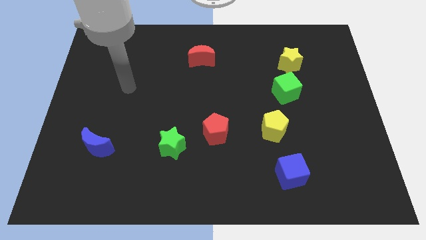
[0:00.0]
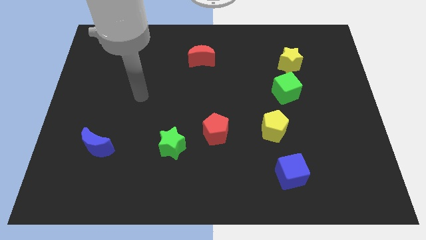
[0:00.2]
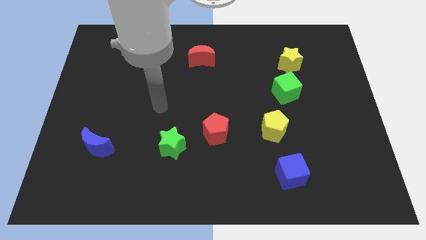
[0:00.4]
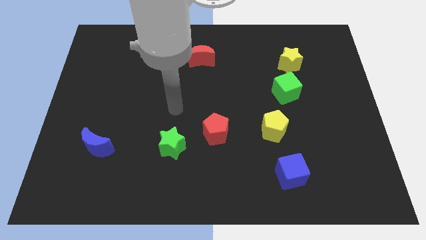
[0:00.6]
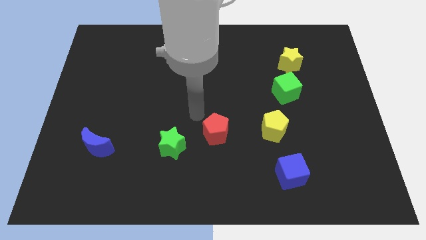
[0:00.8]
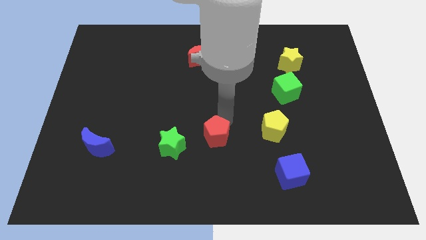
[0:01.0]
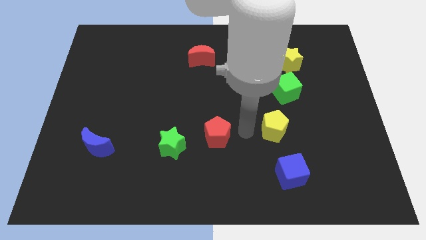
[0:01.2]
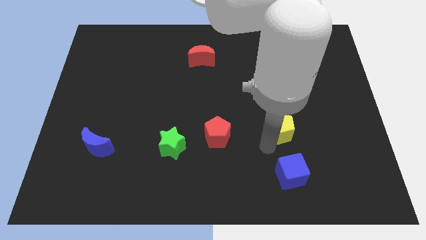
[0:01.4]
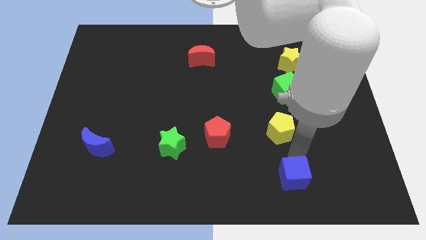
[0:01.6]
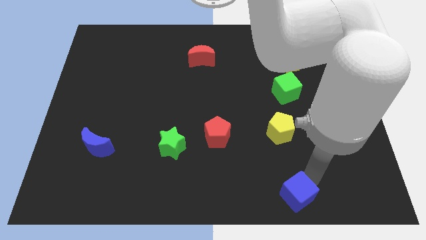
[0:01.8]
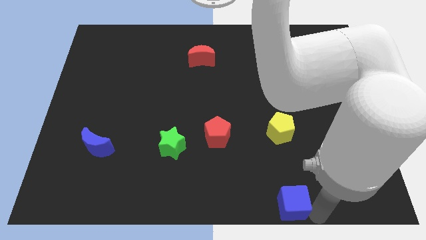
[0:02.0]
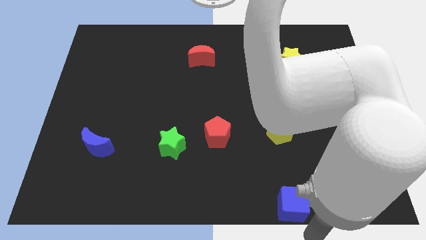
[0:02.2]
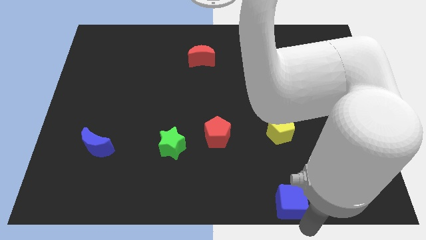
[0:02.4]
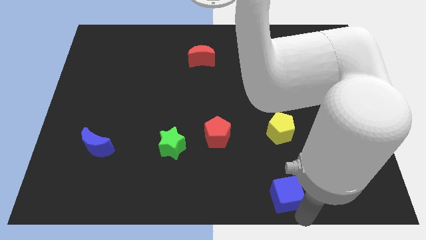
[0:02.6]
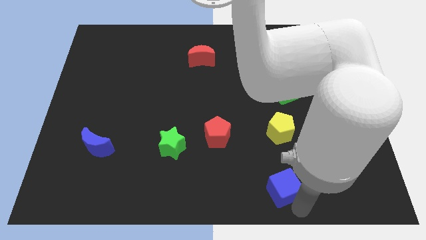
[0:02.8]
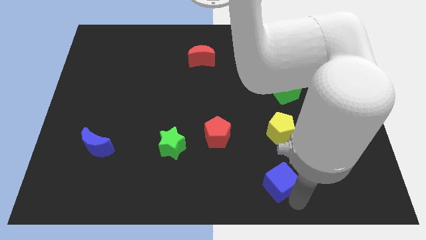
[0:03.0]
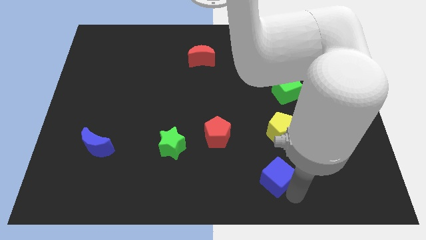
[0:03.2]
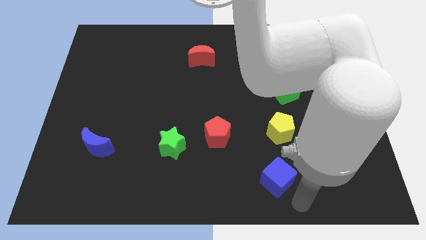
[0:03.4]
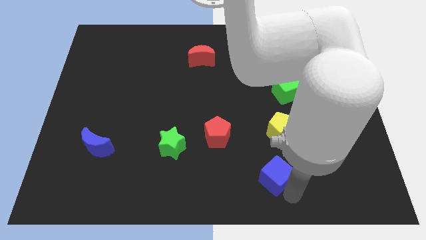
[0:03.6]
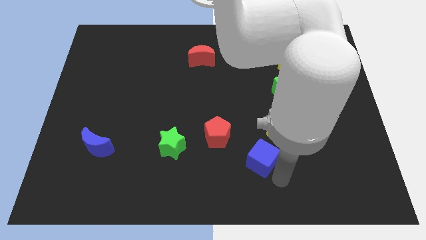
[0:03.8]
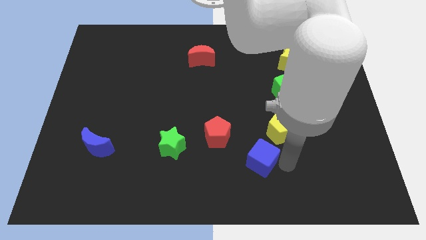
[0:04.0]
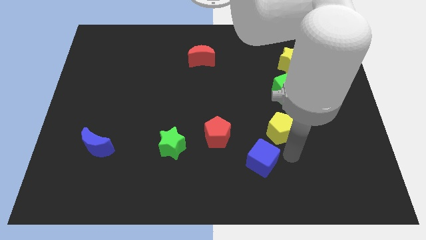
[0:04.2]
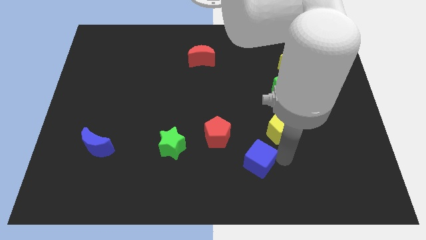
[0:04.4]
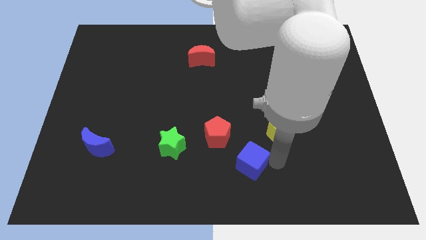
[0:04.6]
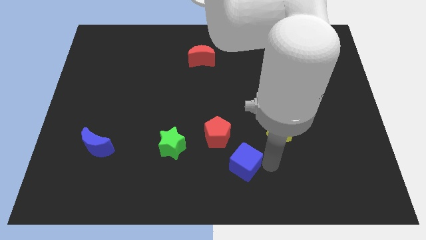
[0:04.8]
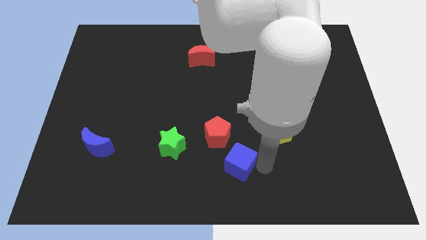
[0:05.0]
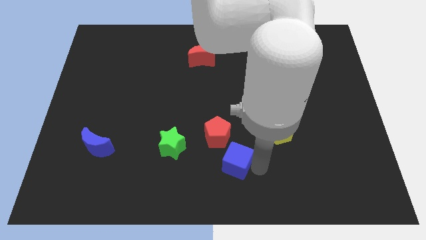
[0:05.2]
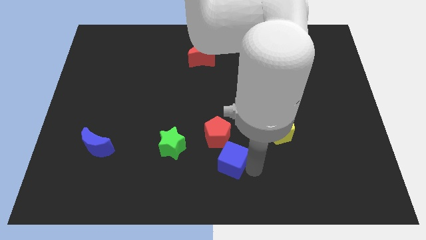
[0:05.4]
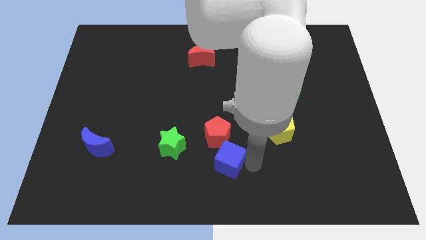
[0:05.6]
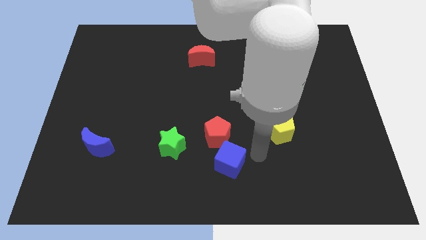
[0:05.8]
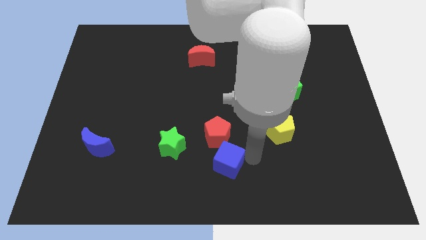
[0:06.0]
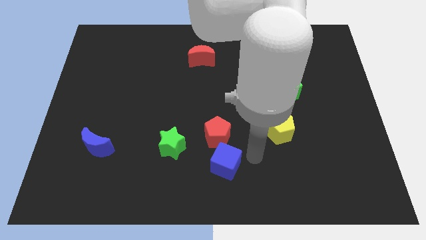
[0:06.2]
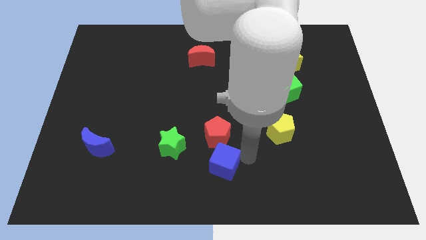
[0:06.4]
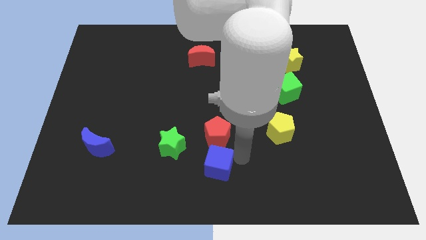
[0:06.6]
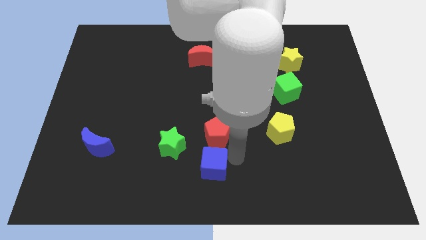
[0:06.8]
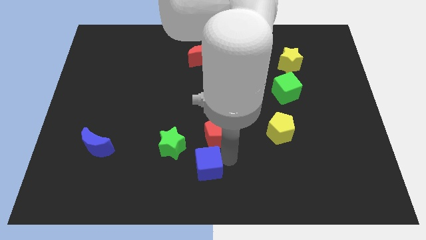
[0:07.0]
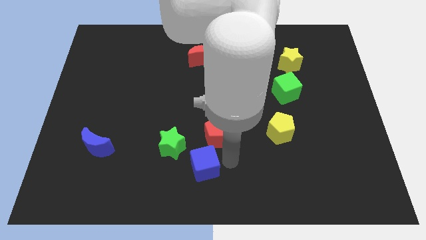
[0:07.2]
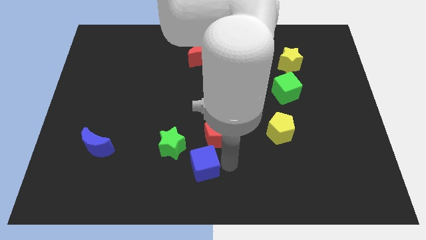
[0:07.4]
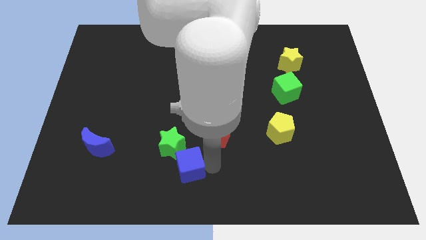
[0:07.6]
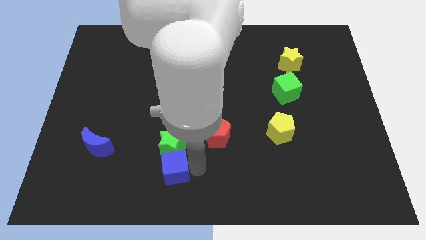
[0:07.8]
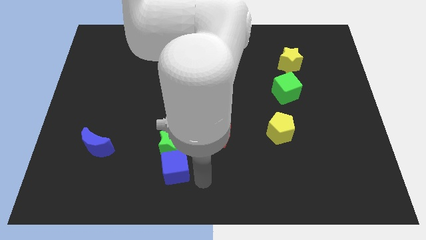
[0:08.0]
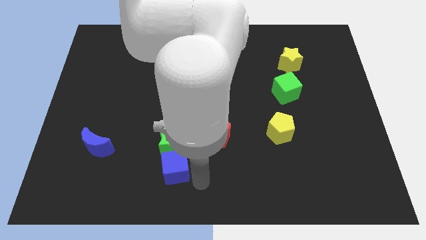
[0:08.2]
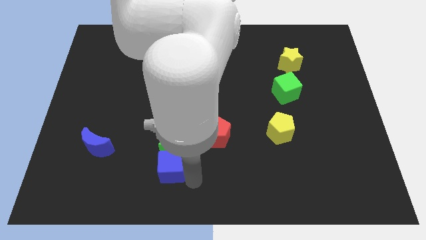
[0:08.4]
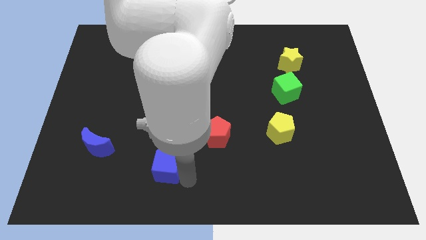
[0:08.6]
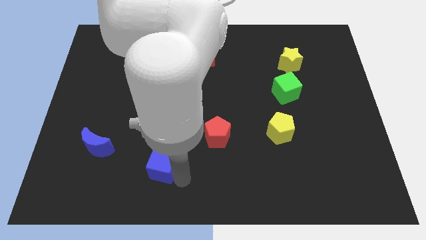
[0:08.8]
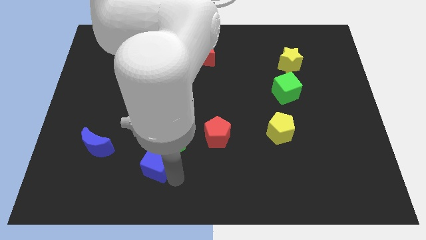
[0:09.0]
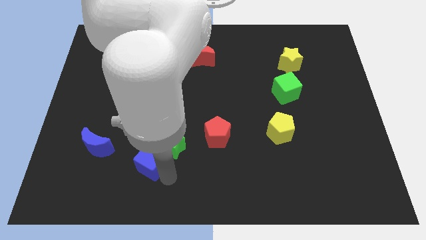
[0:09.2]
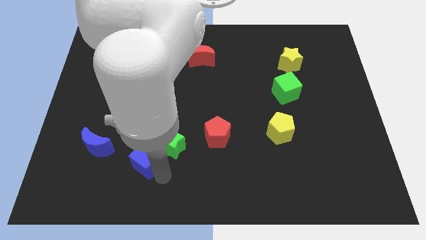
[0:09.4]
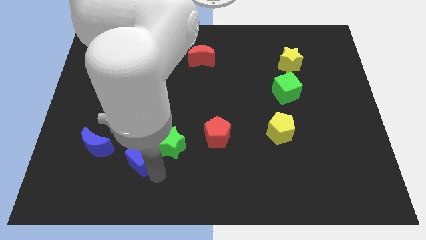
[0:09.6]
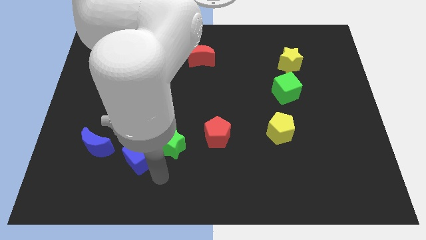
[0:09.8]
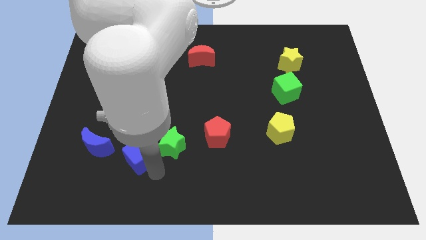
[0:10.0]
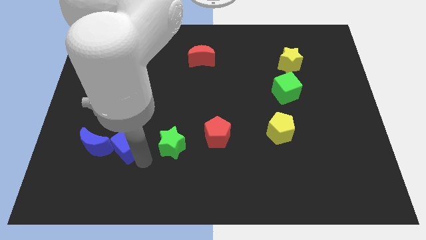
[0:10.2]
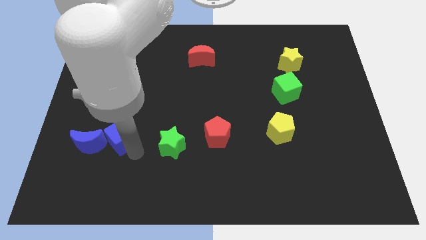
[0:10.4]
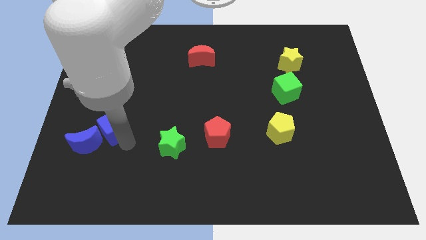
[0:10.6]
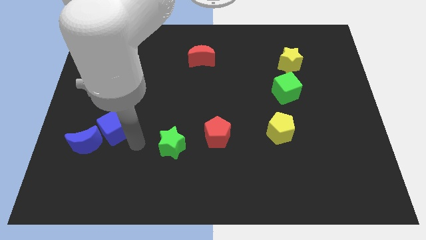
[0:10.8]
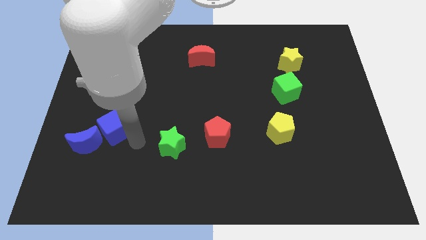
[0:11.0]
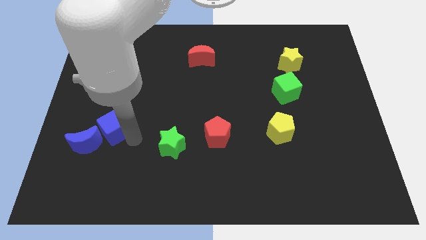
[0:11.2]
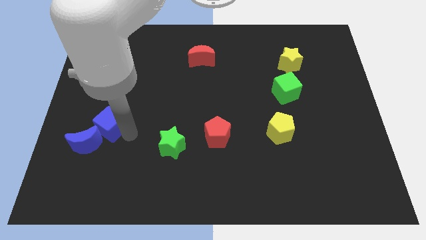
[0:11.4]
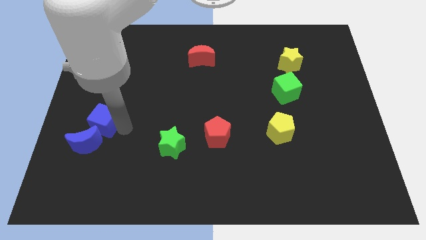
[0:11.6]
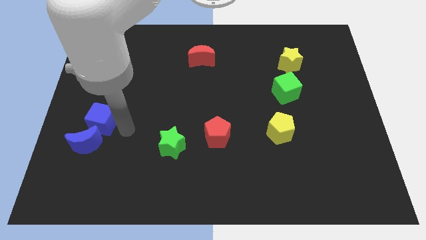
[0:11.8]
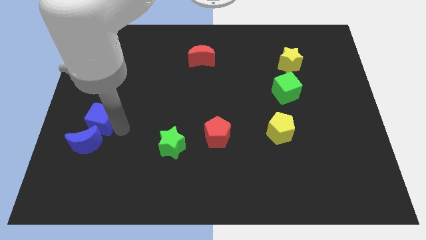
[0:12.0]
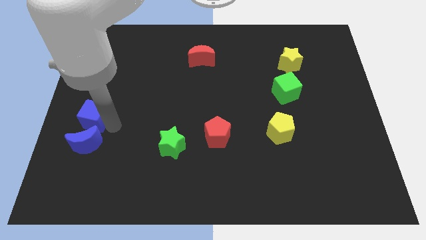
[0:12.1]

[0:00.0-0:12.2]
put the blue cube to the left side
